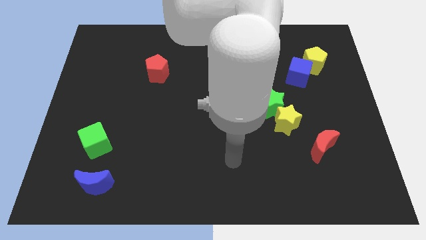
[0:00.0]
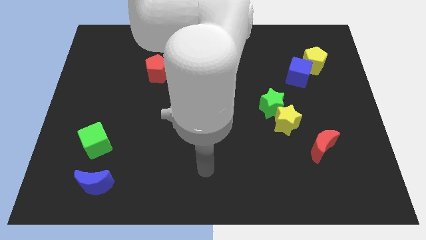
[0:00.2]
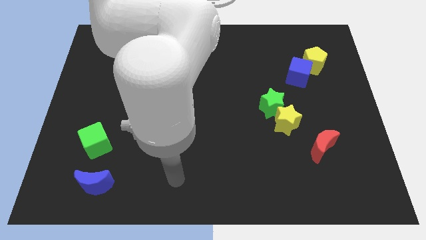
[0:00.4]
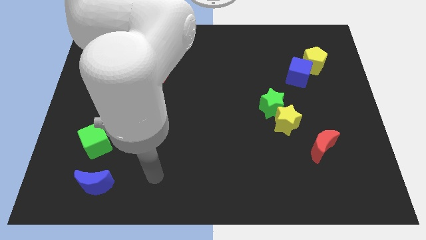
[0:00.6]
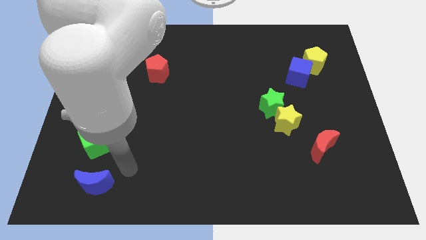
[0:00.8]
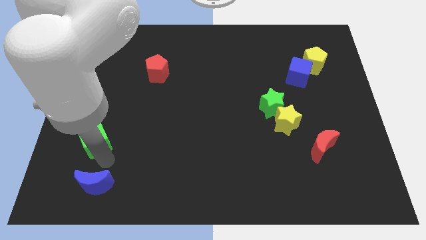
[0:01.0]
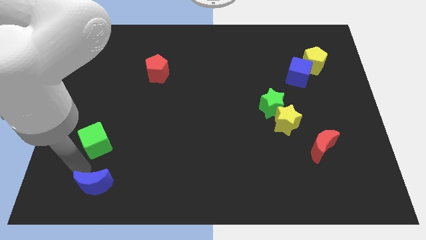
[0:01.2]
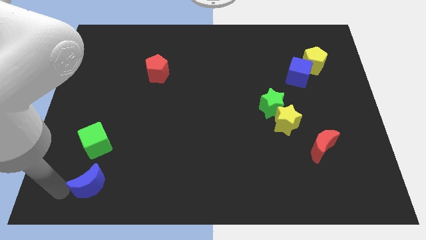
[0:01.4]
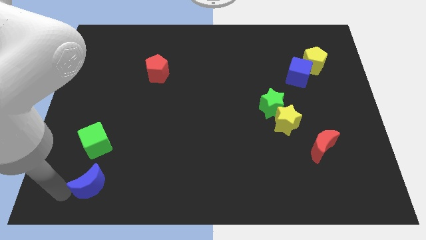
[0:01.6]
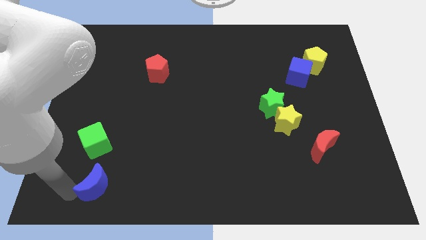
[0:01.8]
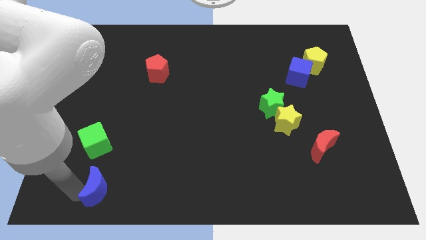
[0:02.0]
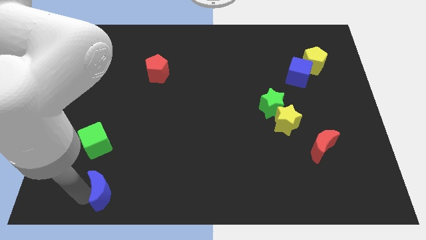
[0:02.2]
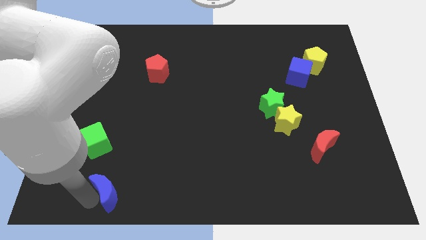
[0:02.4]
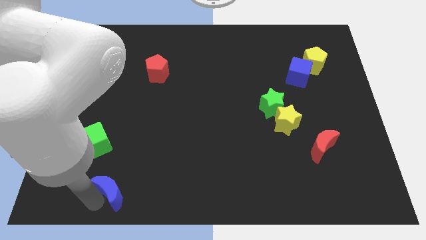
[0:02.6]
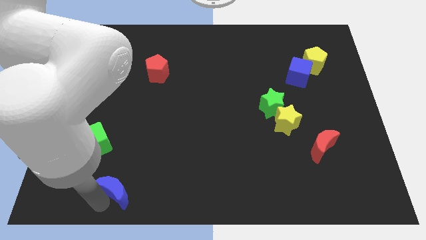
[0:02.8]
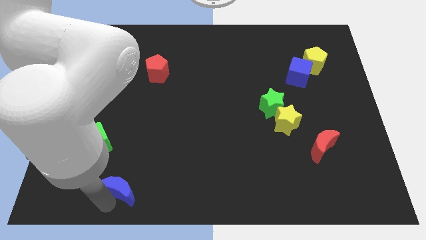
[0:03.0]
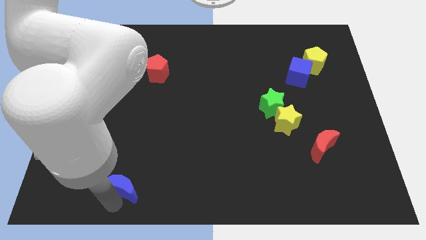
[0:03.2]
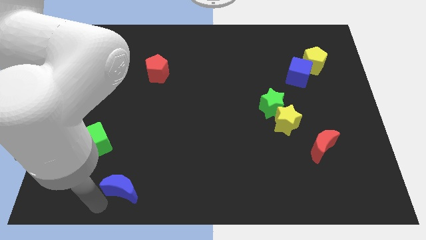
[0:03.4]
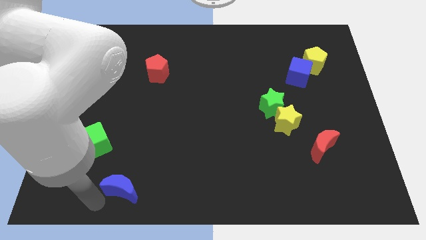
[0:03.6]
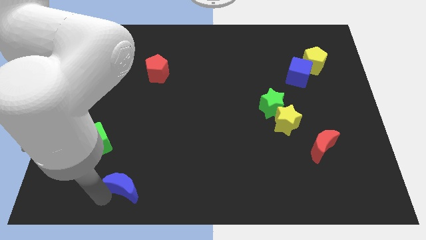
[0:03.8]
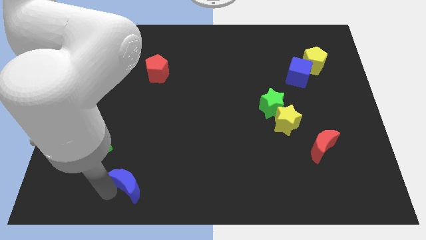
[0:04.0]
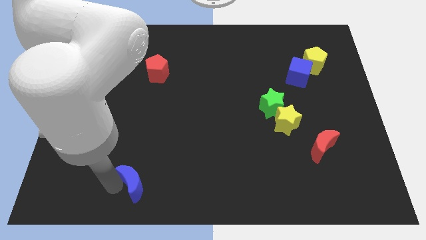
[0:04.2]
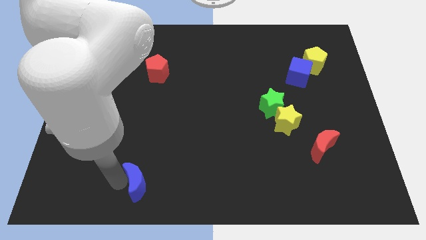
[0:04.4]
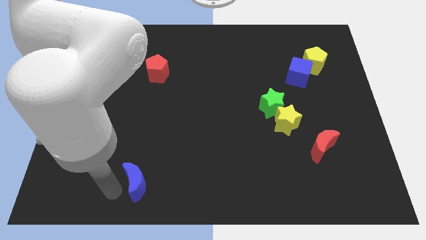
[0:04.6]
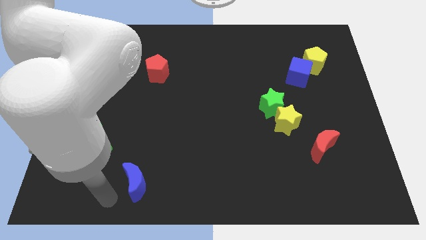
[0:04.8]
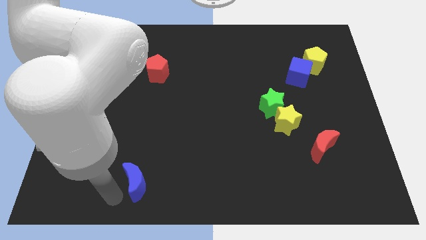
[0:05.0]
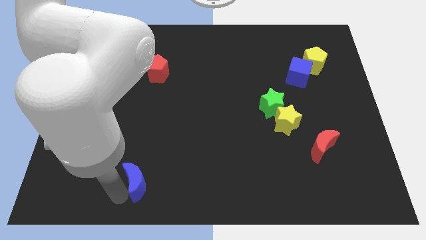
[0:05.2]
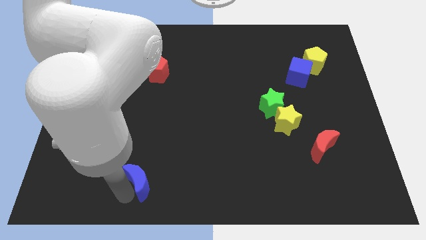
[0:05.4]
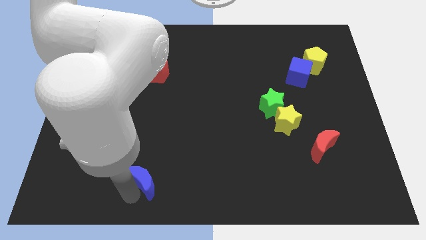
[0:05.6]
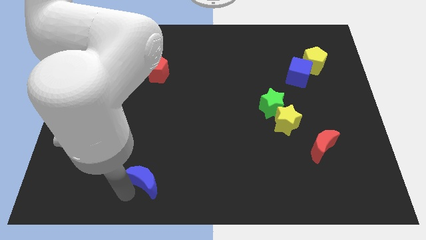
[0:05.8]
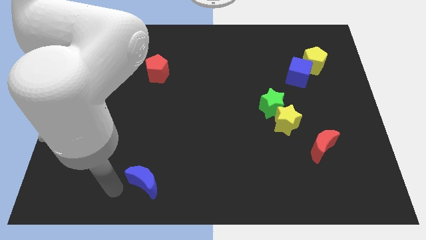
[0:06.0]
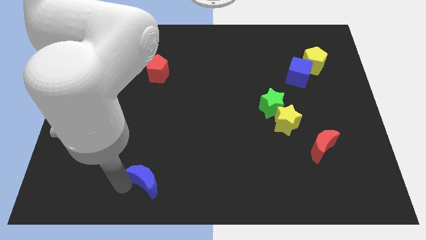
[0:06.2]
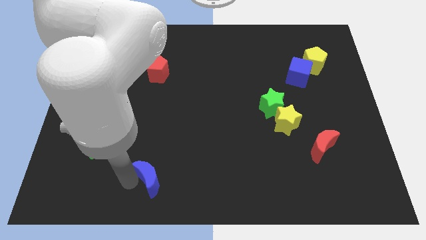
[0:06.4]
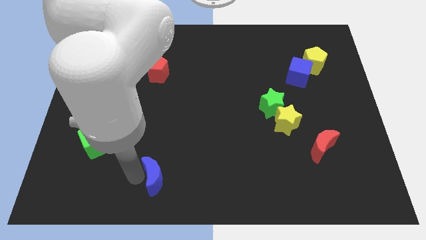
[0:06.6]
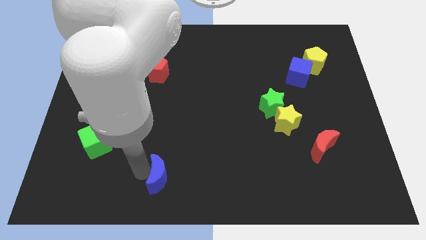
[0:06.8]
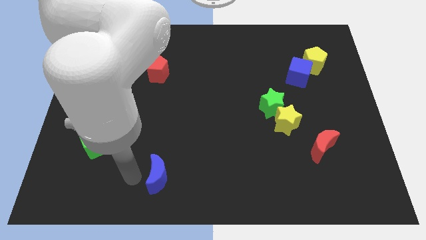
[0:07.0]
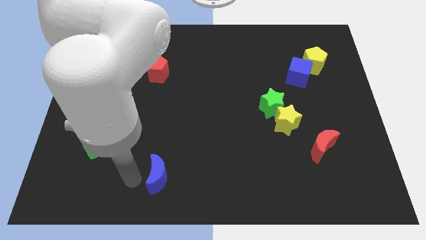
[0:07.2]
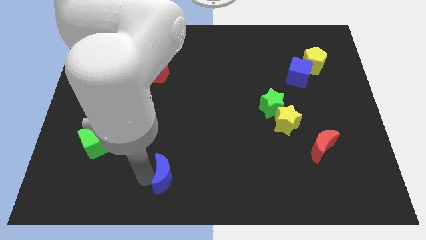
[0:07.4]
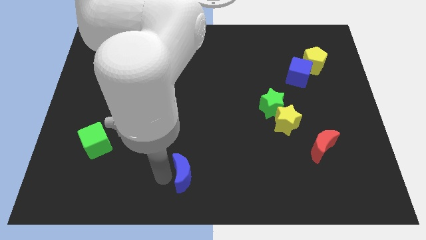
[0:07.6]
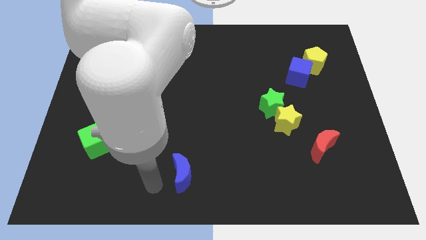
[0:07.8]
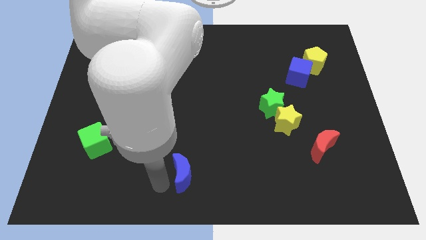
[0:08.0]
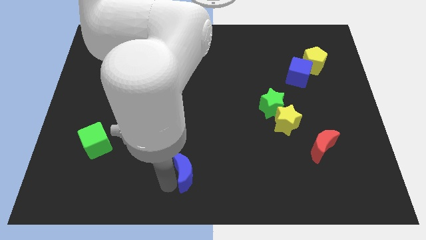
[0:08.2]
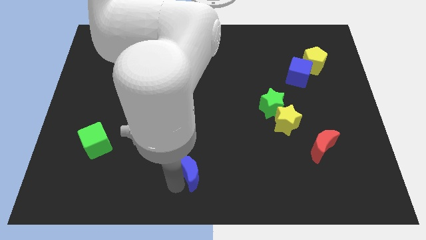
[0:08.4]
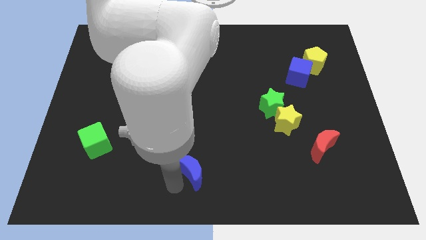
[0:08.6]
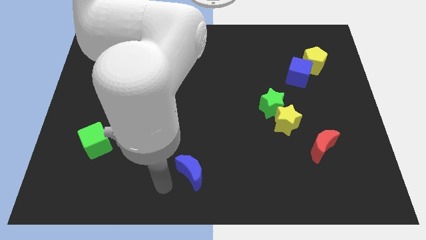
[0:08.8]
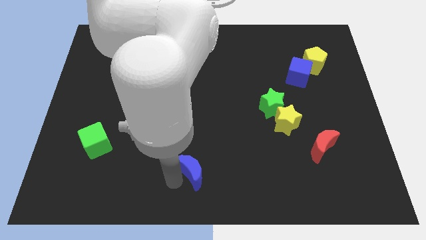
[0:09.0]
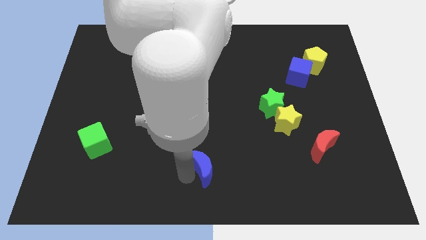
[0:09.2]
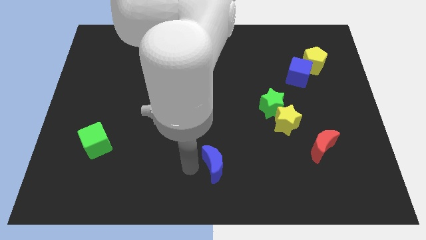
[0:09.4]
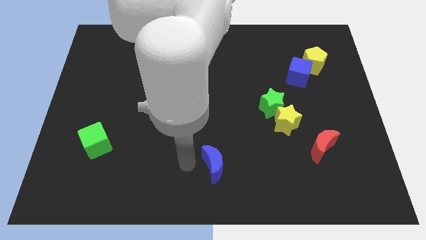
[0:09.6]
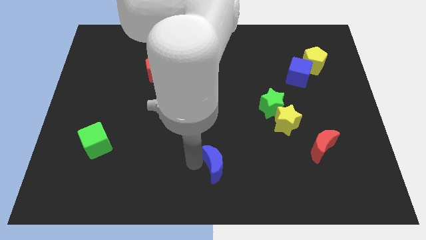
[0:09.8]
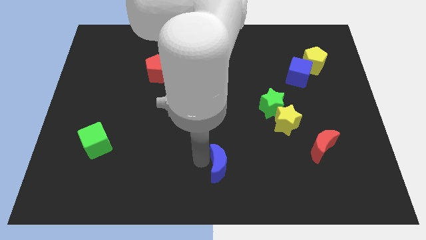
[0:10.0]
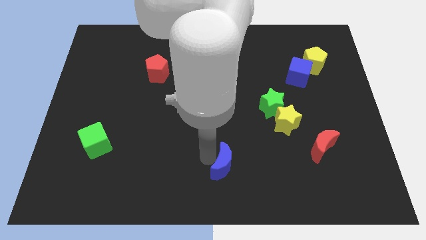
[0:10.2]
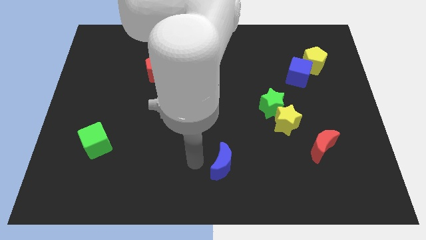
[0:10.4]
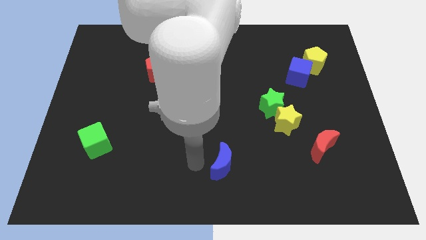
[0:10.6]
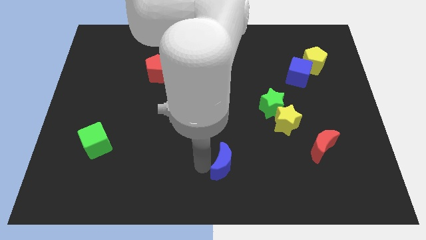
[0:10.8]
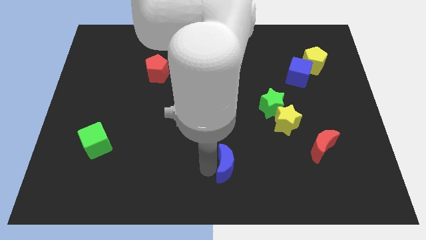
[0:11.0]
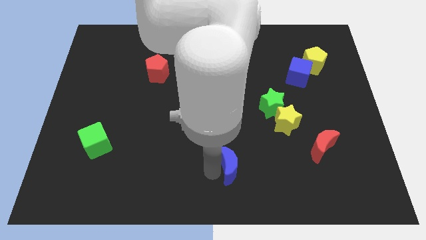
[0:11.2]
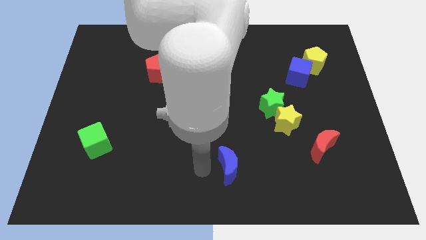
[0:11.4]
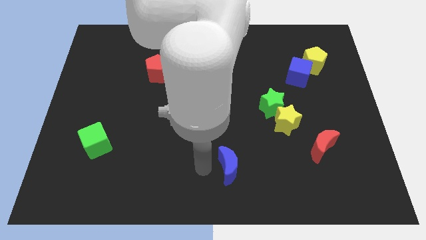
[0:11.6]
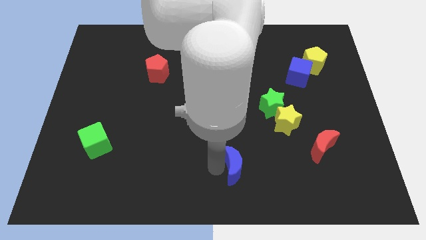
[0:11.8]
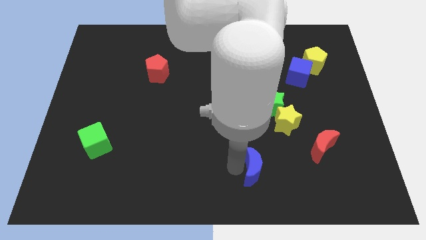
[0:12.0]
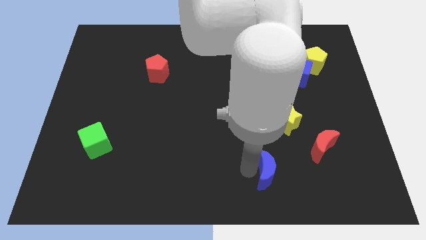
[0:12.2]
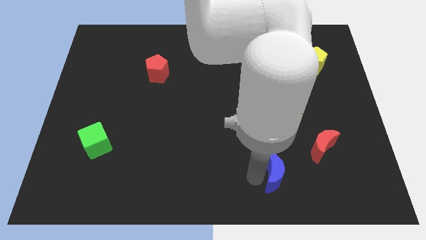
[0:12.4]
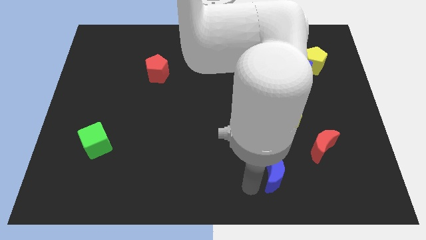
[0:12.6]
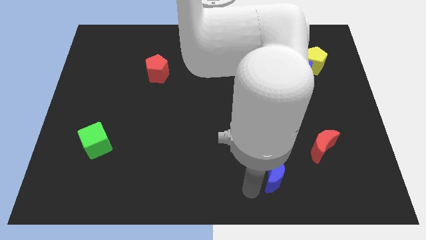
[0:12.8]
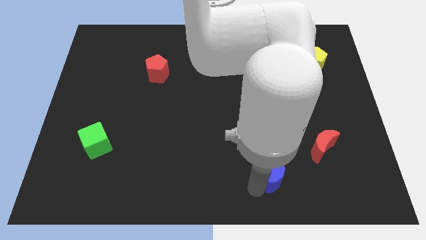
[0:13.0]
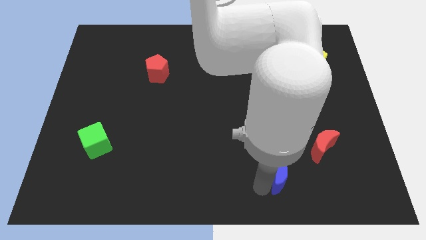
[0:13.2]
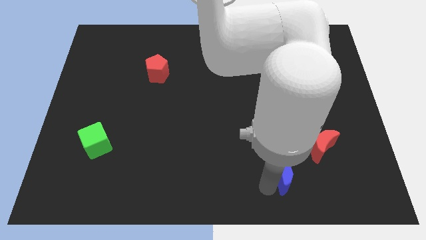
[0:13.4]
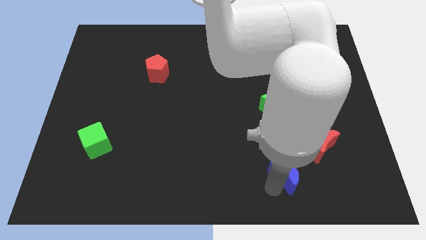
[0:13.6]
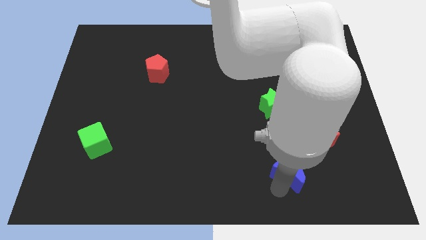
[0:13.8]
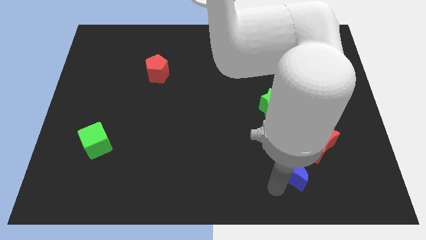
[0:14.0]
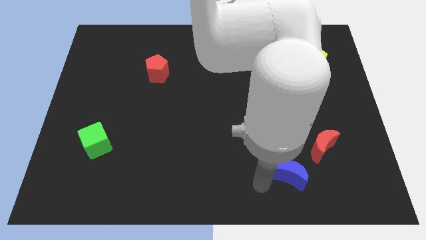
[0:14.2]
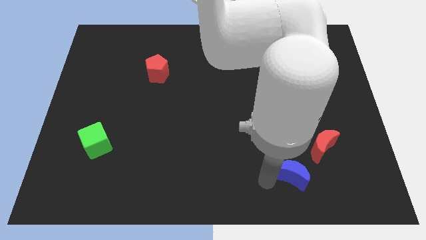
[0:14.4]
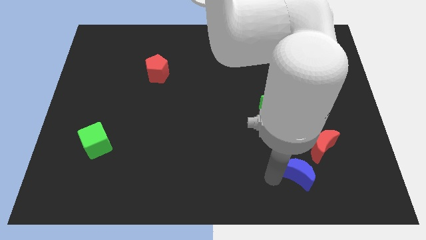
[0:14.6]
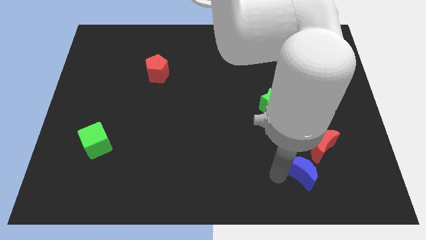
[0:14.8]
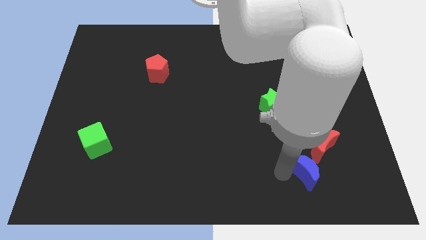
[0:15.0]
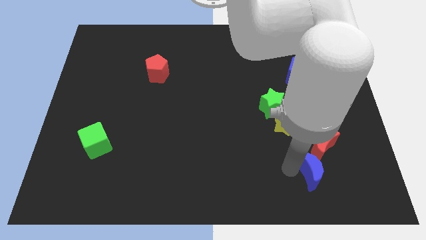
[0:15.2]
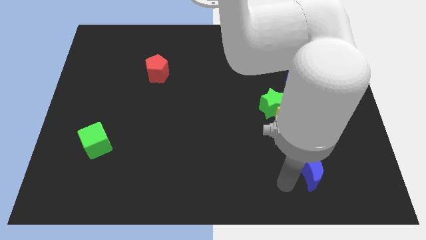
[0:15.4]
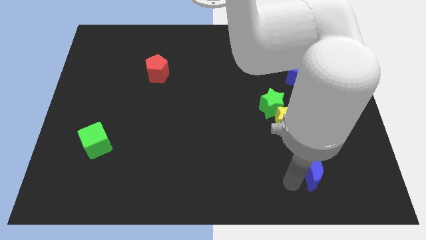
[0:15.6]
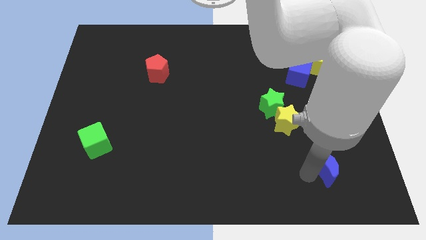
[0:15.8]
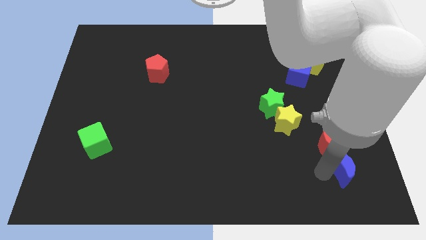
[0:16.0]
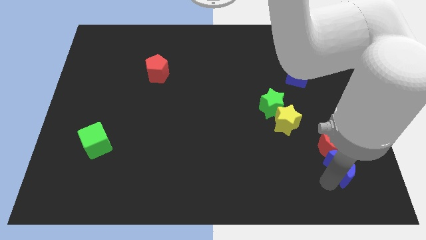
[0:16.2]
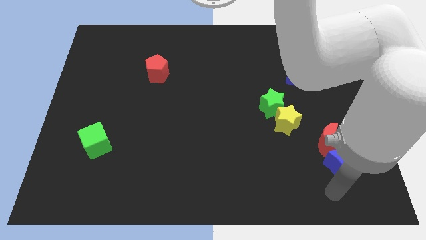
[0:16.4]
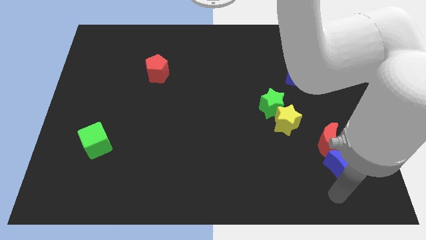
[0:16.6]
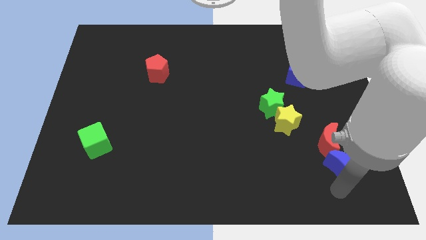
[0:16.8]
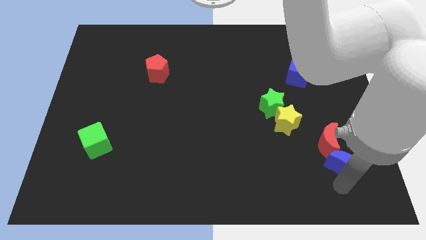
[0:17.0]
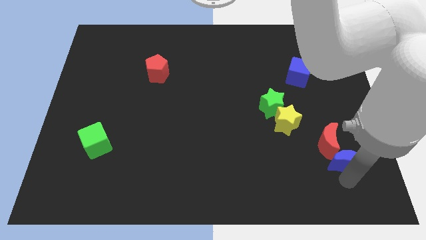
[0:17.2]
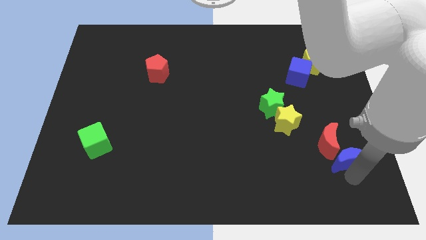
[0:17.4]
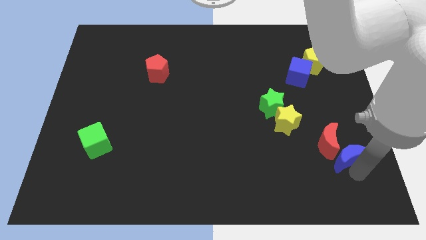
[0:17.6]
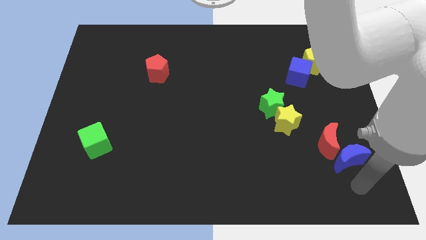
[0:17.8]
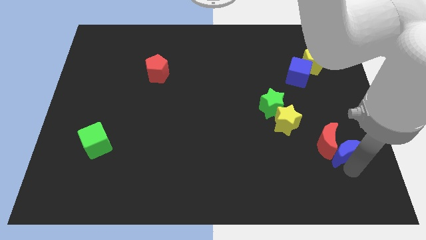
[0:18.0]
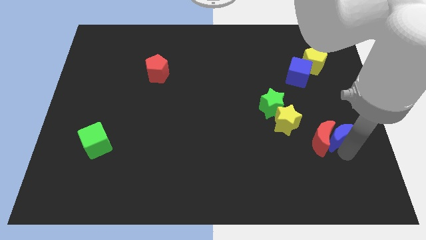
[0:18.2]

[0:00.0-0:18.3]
slide the blue moon to the right side of the yellow star
